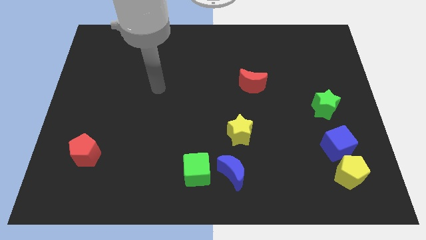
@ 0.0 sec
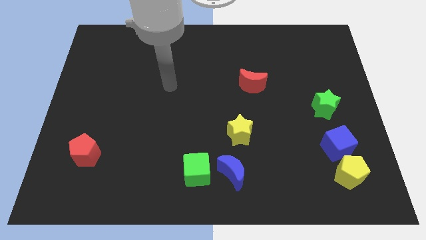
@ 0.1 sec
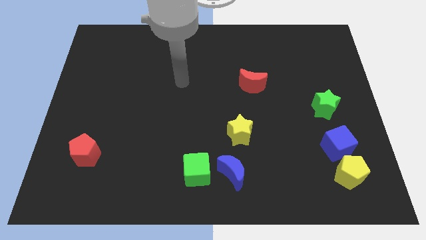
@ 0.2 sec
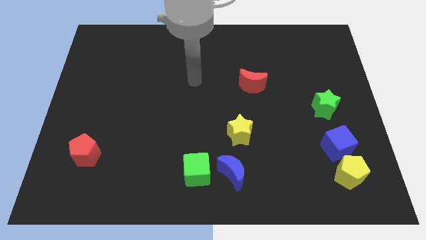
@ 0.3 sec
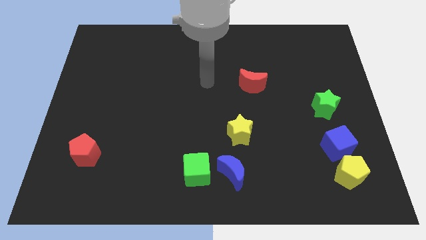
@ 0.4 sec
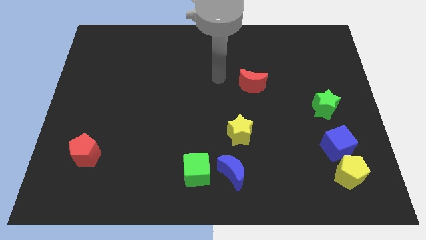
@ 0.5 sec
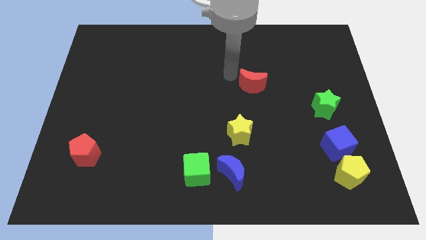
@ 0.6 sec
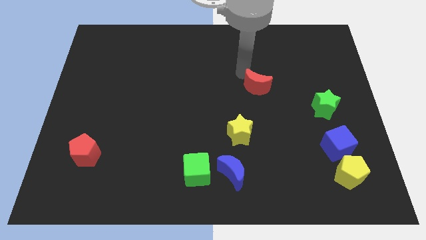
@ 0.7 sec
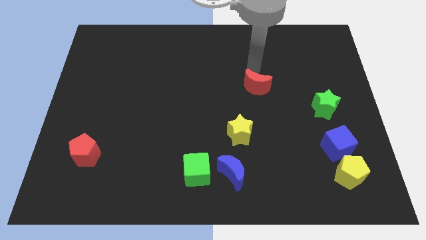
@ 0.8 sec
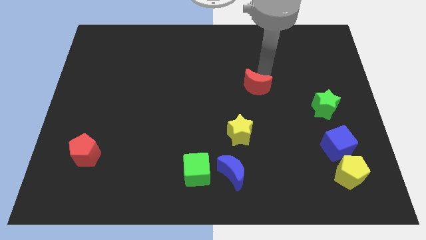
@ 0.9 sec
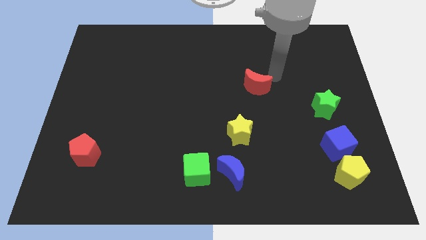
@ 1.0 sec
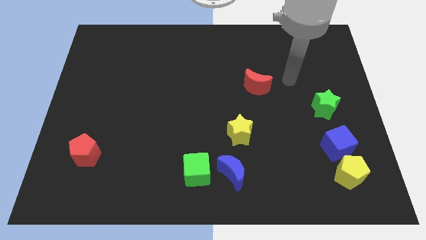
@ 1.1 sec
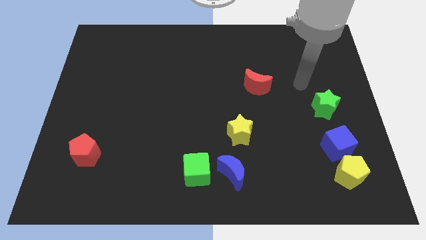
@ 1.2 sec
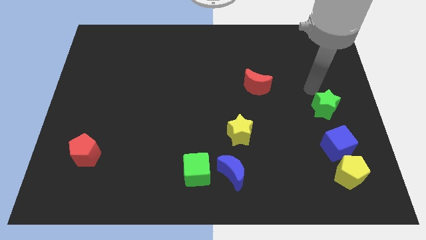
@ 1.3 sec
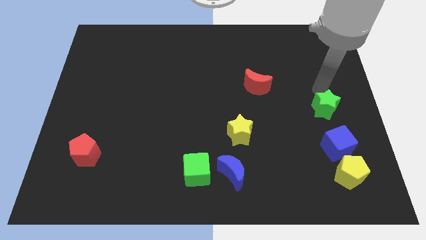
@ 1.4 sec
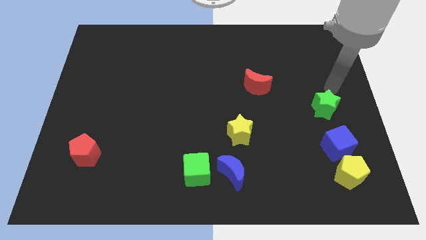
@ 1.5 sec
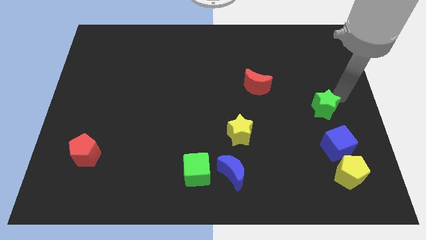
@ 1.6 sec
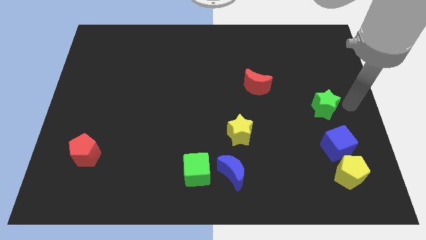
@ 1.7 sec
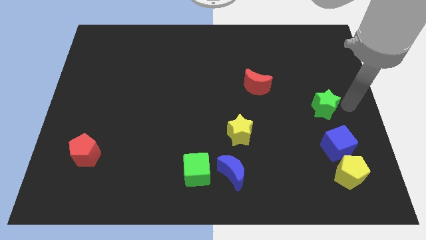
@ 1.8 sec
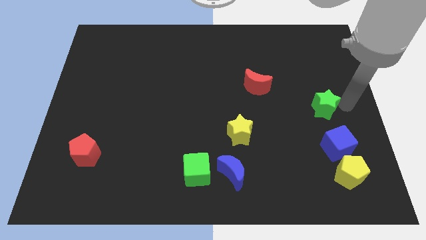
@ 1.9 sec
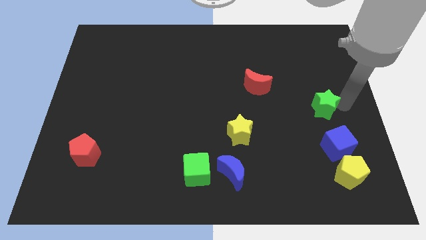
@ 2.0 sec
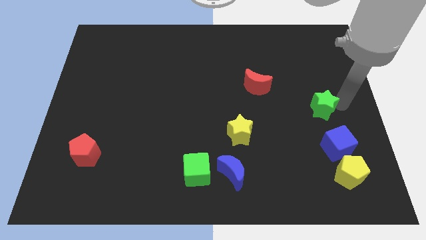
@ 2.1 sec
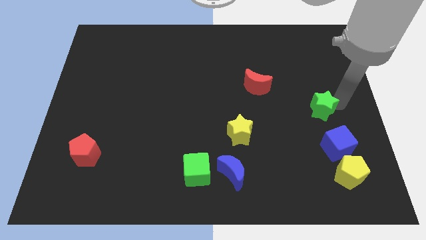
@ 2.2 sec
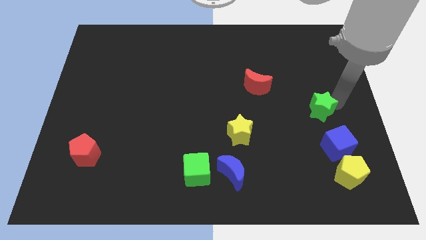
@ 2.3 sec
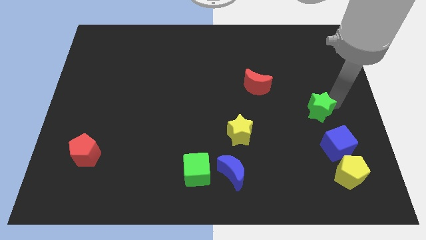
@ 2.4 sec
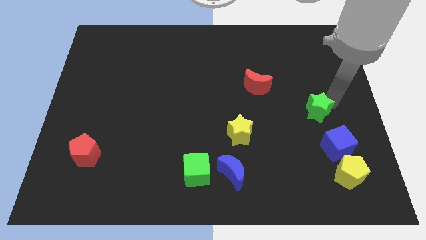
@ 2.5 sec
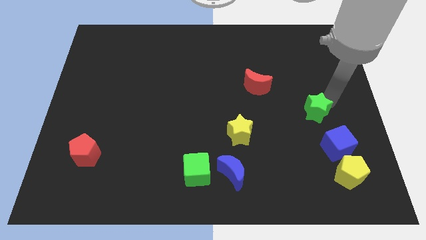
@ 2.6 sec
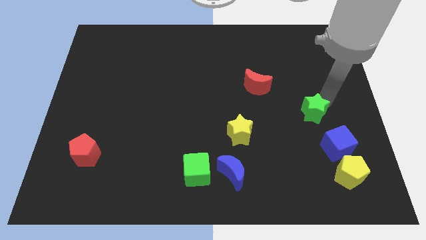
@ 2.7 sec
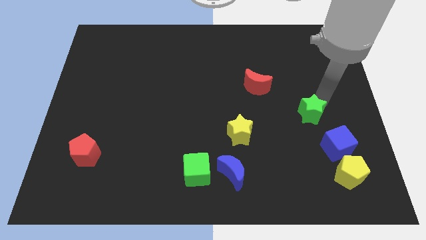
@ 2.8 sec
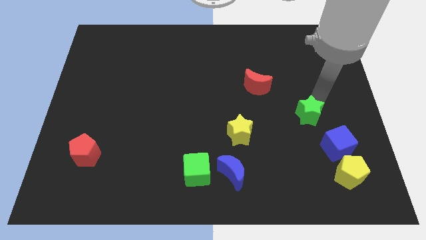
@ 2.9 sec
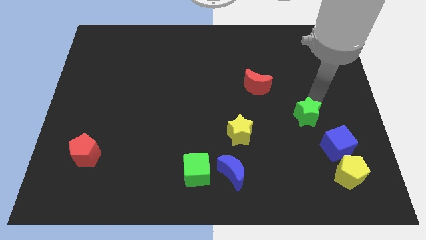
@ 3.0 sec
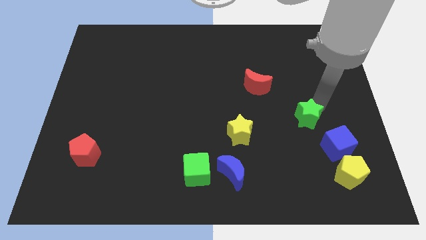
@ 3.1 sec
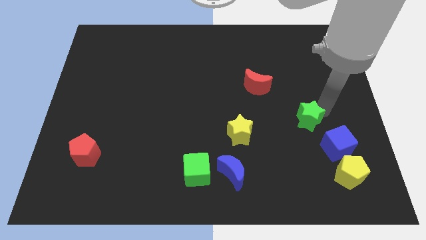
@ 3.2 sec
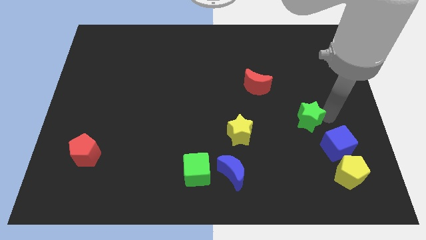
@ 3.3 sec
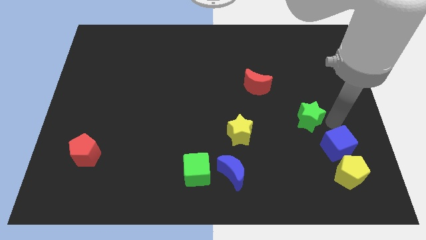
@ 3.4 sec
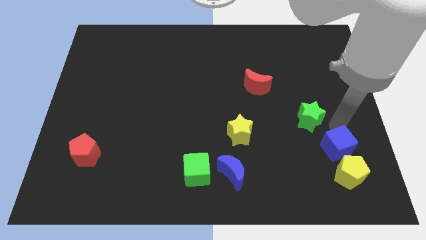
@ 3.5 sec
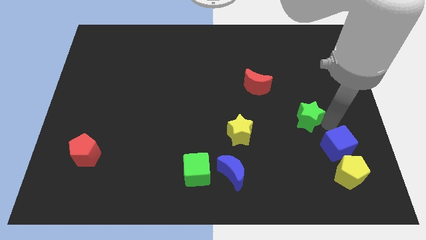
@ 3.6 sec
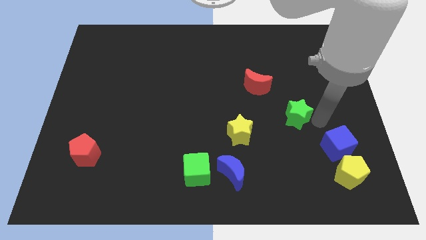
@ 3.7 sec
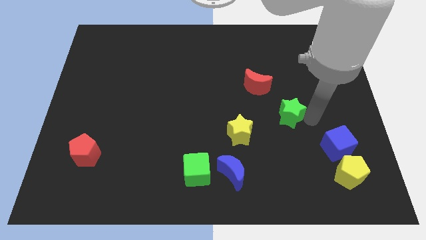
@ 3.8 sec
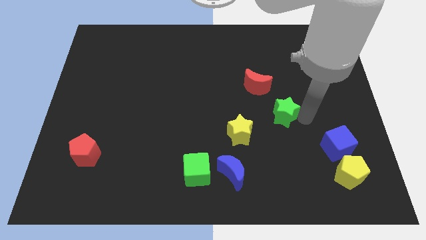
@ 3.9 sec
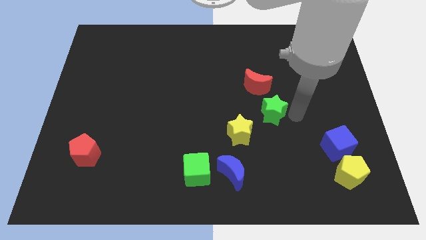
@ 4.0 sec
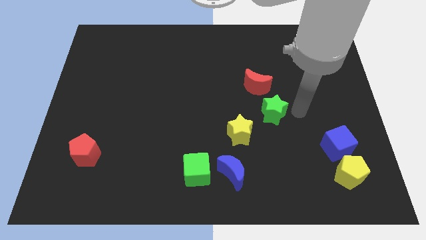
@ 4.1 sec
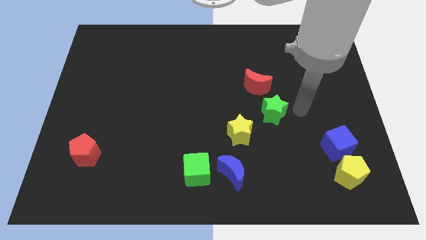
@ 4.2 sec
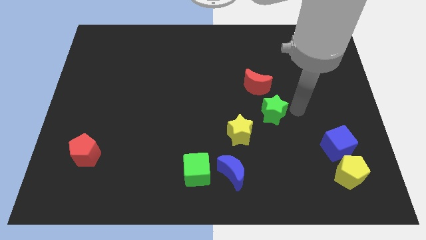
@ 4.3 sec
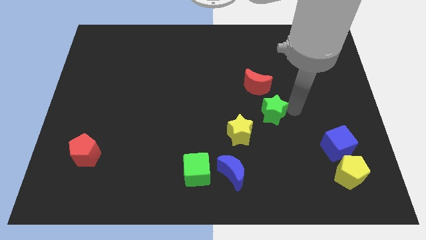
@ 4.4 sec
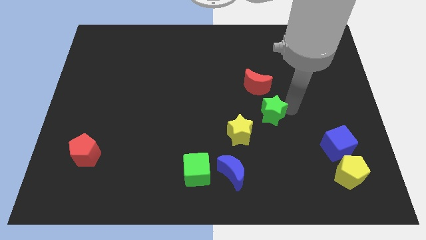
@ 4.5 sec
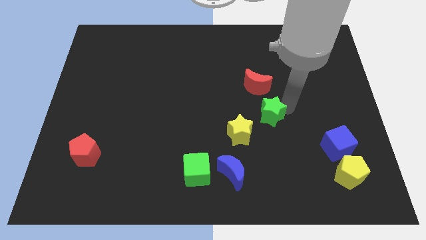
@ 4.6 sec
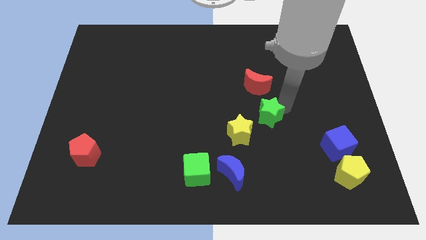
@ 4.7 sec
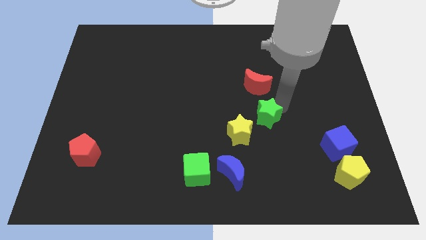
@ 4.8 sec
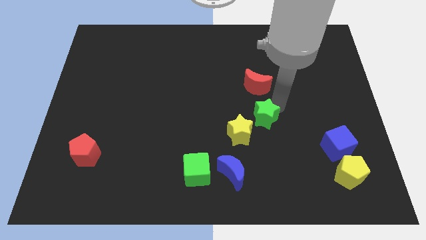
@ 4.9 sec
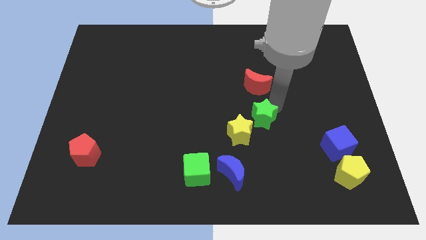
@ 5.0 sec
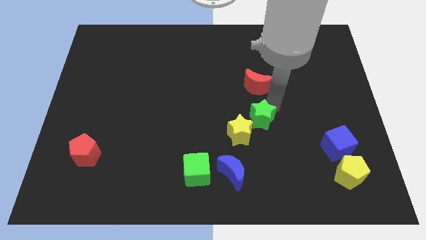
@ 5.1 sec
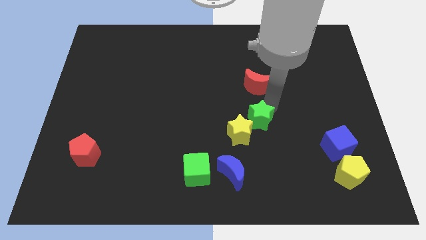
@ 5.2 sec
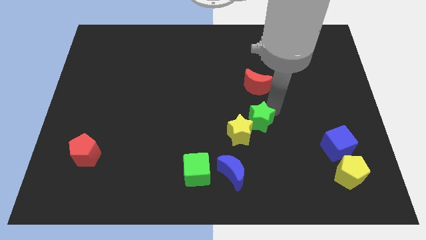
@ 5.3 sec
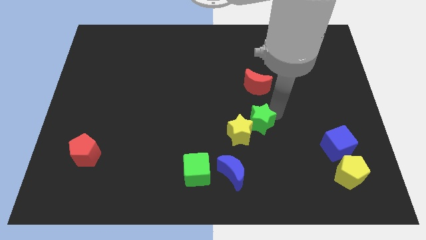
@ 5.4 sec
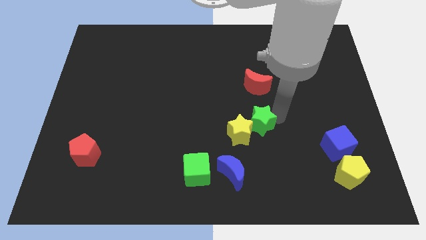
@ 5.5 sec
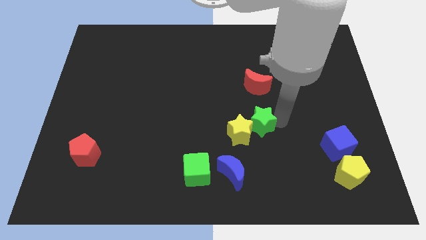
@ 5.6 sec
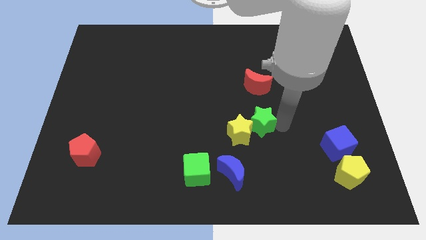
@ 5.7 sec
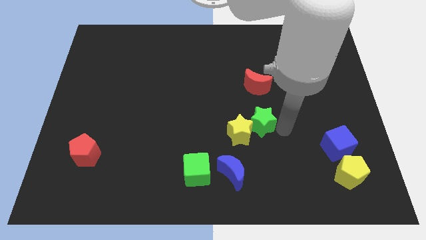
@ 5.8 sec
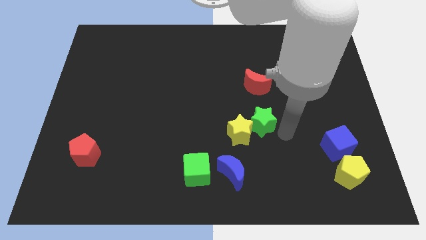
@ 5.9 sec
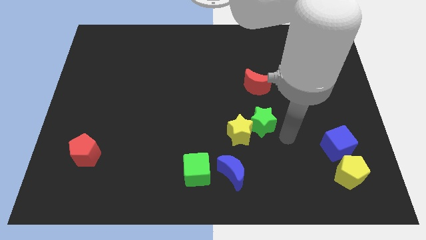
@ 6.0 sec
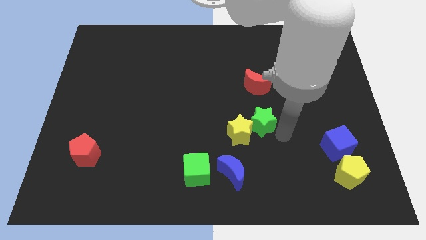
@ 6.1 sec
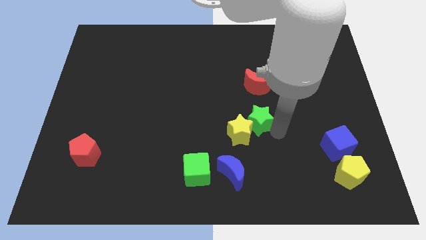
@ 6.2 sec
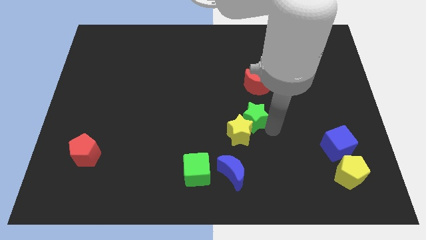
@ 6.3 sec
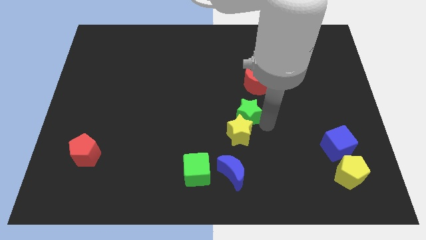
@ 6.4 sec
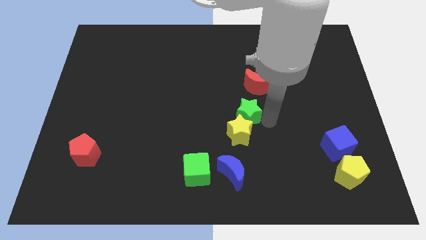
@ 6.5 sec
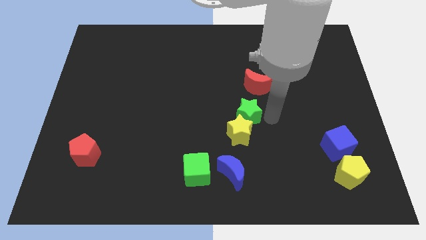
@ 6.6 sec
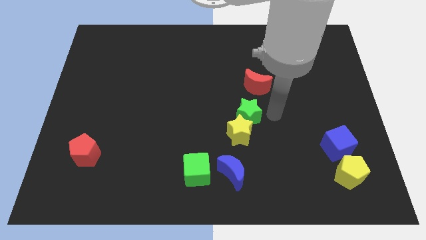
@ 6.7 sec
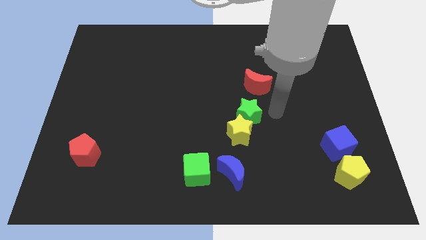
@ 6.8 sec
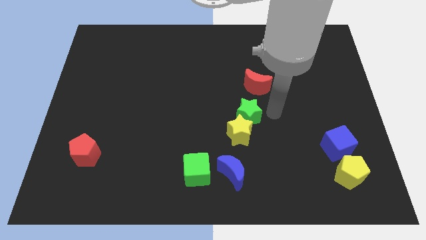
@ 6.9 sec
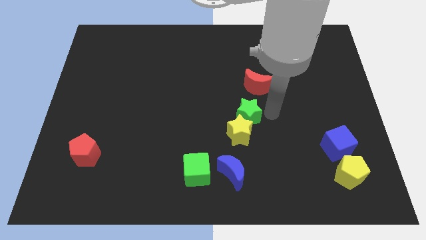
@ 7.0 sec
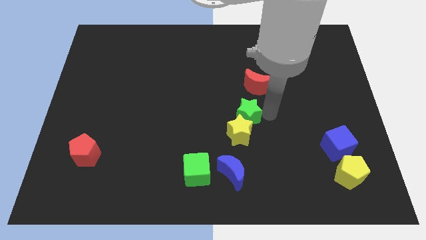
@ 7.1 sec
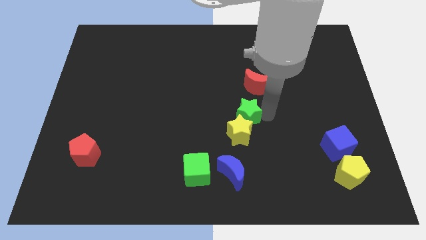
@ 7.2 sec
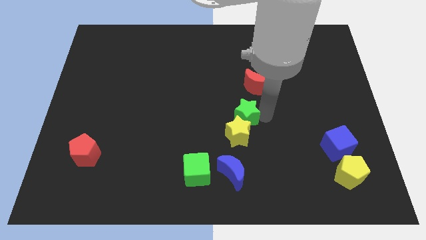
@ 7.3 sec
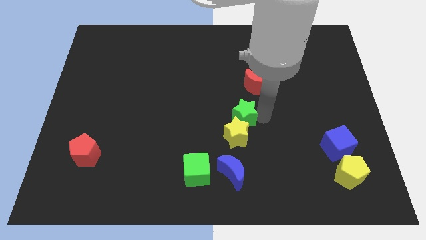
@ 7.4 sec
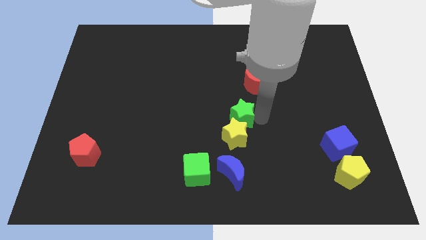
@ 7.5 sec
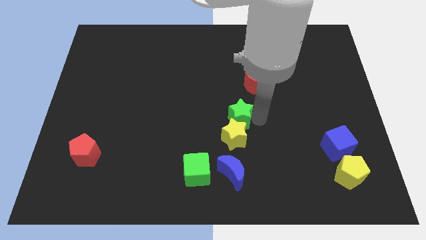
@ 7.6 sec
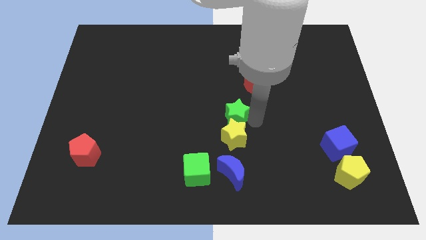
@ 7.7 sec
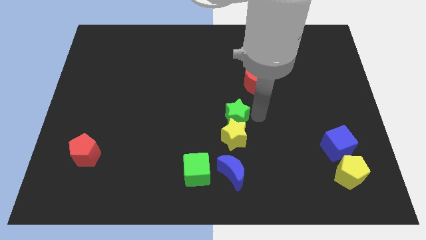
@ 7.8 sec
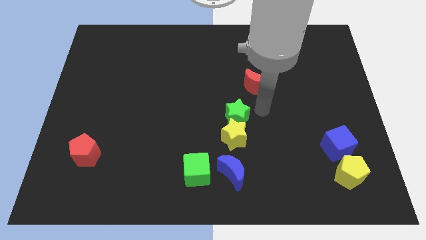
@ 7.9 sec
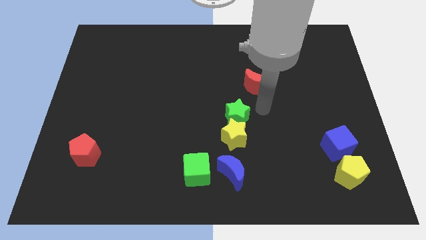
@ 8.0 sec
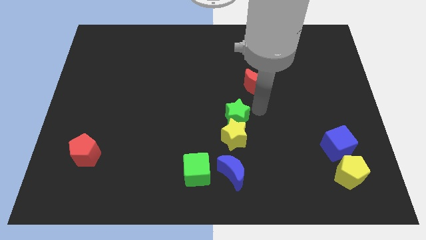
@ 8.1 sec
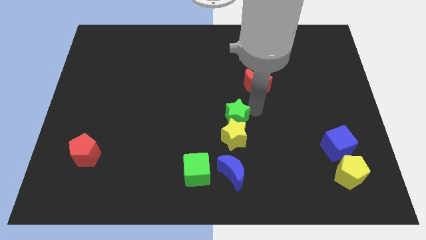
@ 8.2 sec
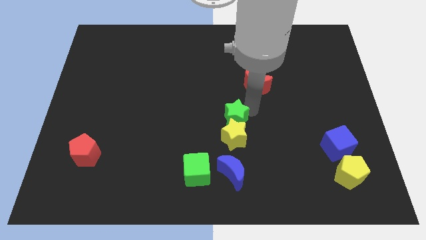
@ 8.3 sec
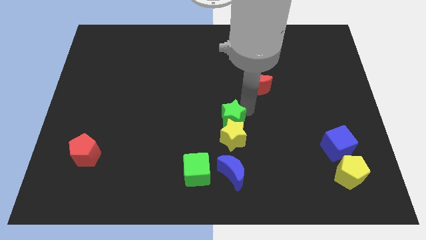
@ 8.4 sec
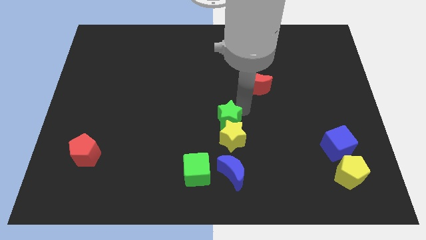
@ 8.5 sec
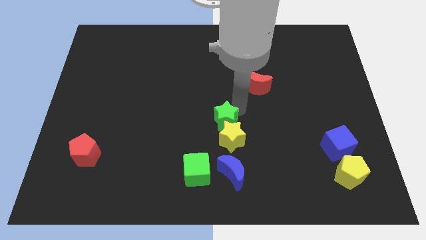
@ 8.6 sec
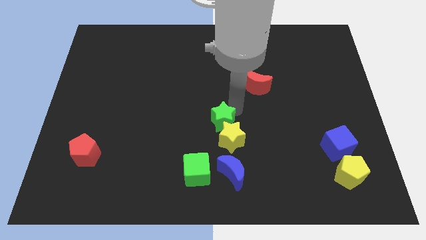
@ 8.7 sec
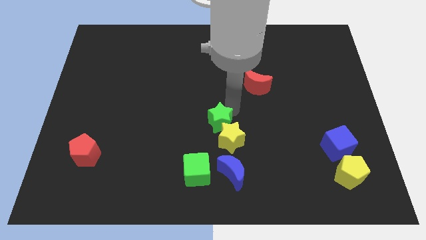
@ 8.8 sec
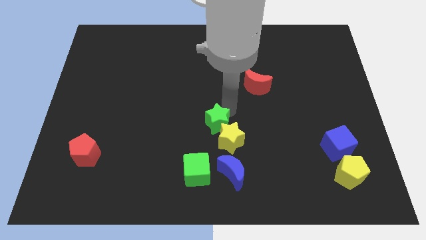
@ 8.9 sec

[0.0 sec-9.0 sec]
slide the green star to the top of the green cube
